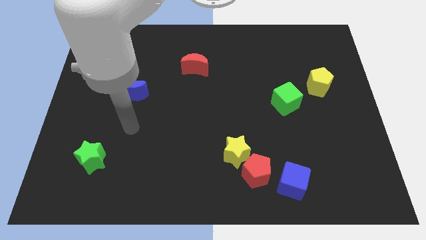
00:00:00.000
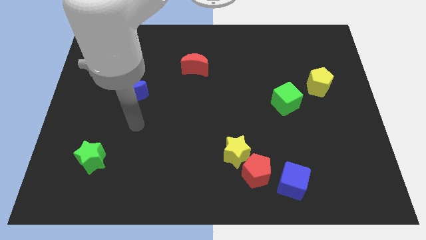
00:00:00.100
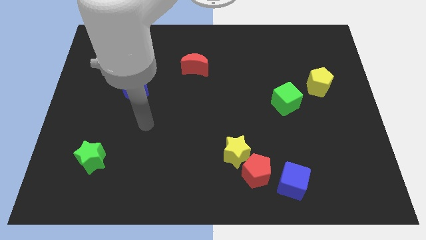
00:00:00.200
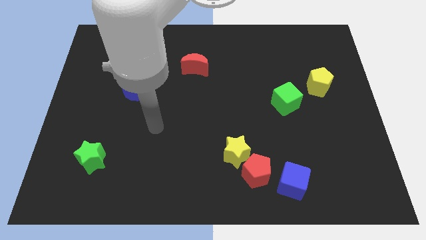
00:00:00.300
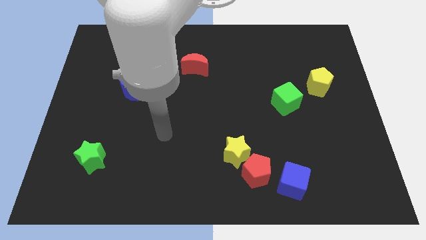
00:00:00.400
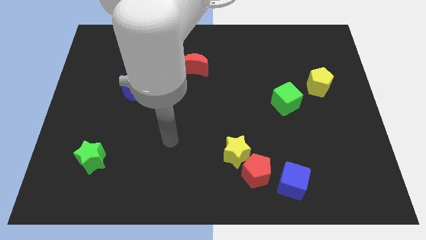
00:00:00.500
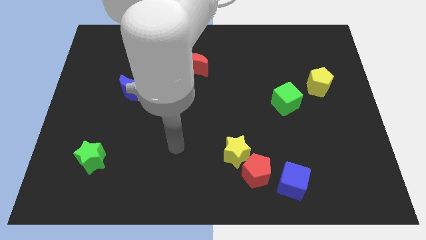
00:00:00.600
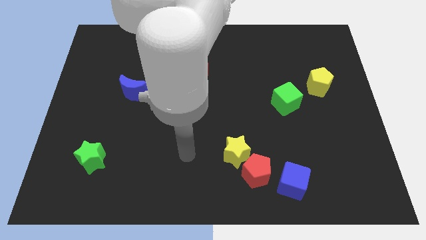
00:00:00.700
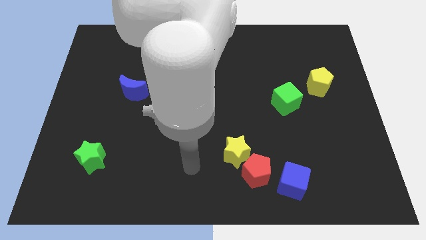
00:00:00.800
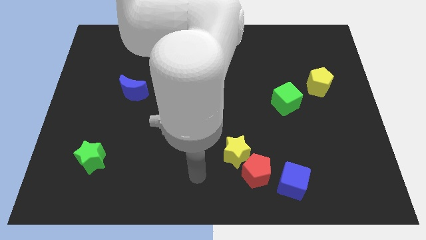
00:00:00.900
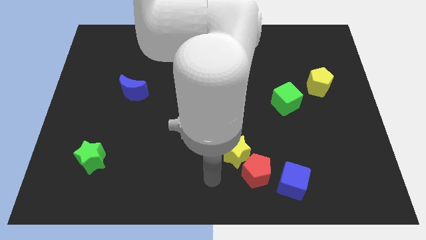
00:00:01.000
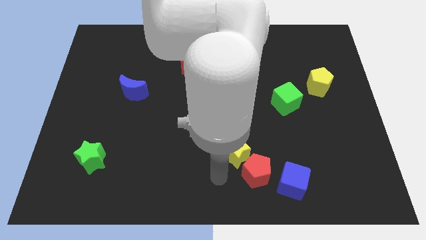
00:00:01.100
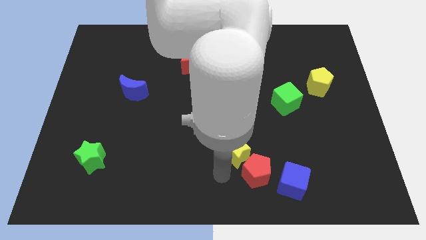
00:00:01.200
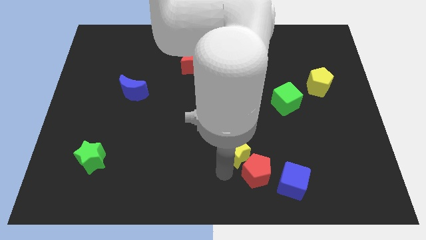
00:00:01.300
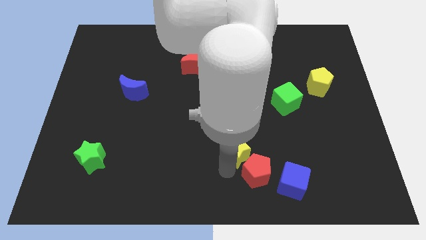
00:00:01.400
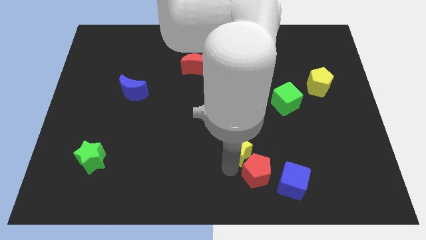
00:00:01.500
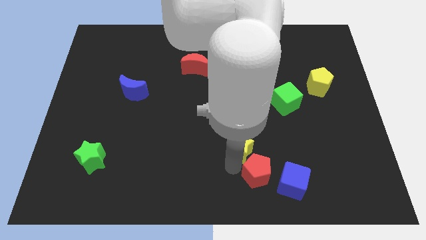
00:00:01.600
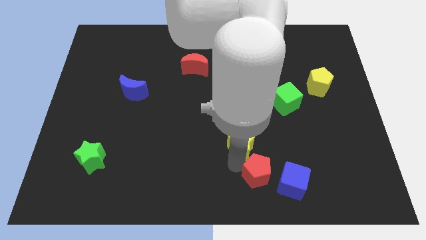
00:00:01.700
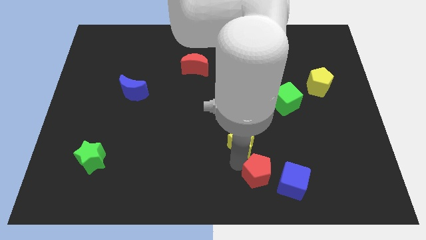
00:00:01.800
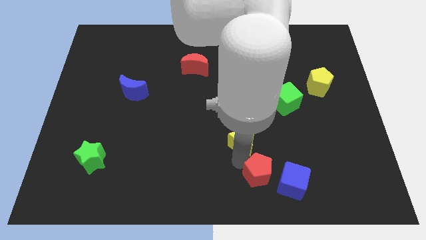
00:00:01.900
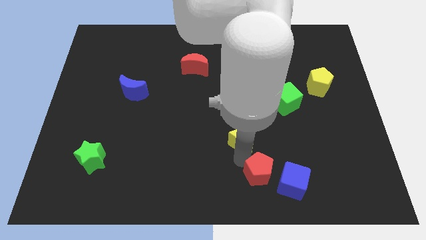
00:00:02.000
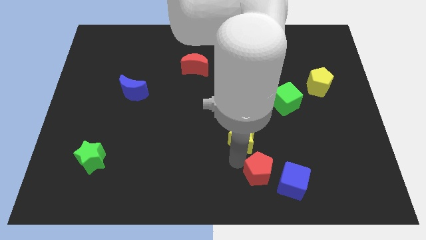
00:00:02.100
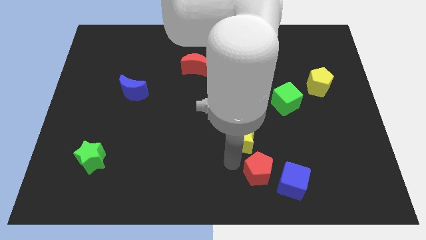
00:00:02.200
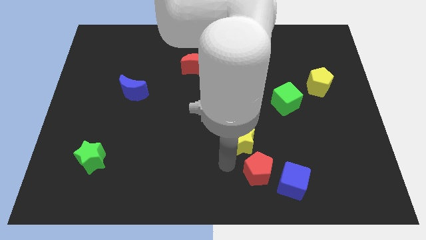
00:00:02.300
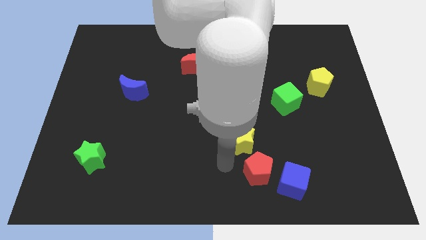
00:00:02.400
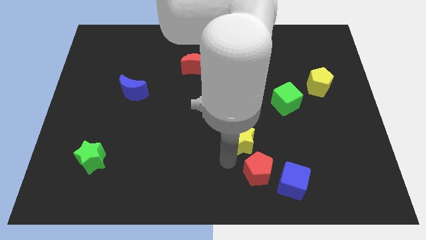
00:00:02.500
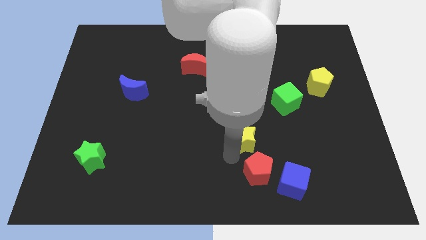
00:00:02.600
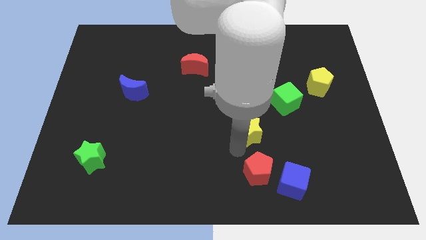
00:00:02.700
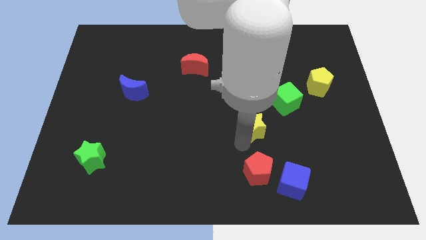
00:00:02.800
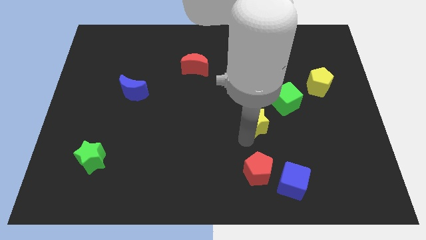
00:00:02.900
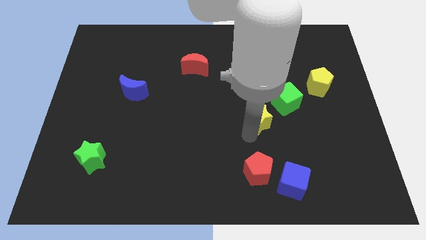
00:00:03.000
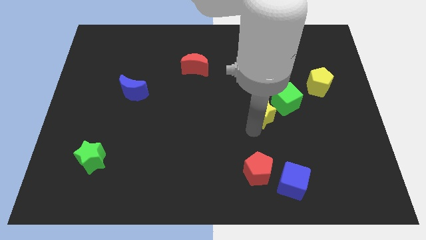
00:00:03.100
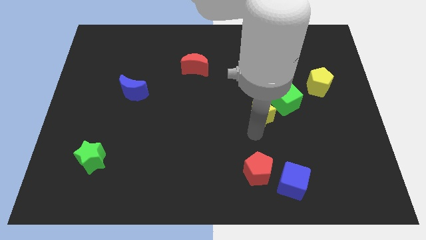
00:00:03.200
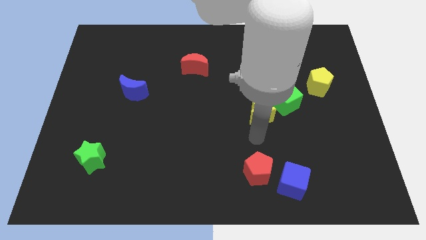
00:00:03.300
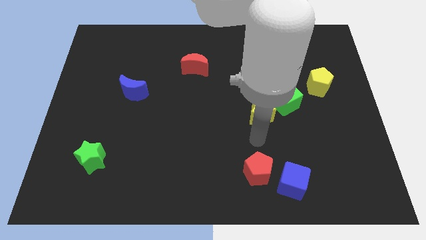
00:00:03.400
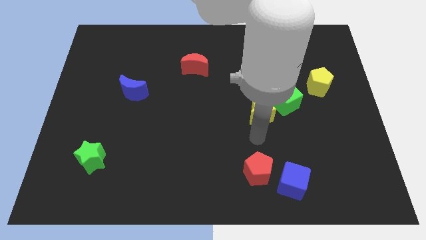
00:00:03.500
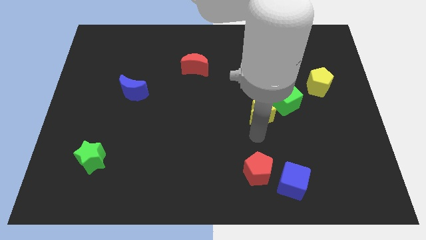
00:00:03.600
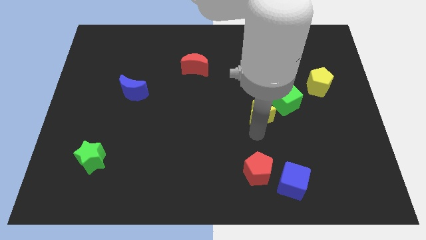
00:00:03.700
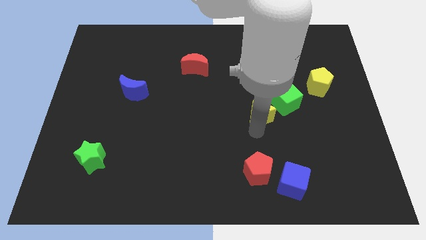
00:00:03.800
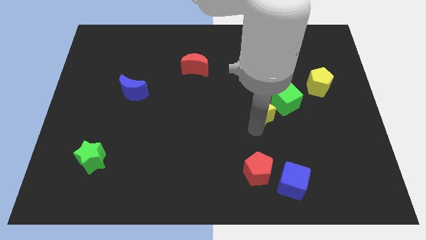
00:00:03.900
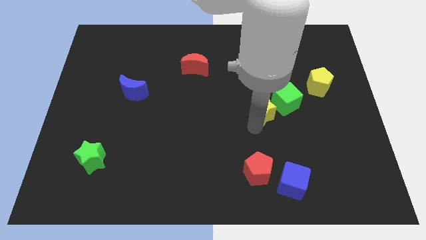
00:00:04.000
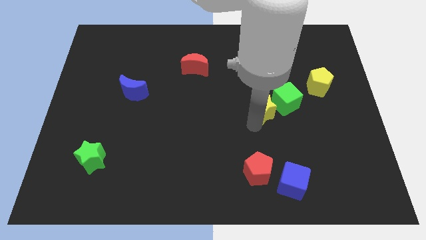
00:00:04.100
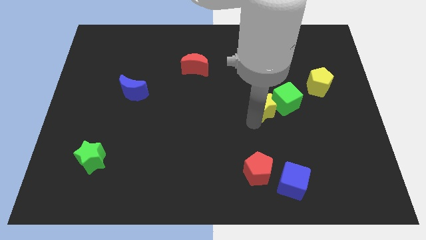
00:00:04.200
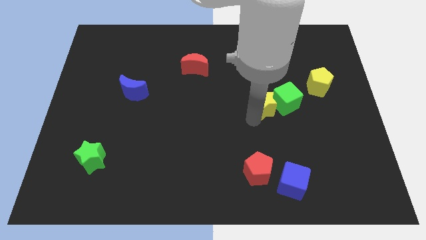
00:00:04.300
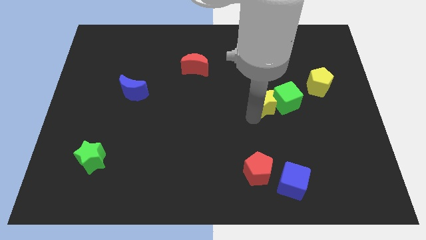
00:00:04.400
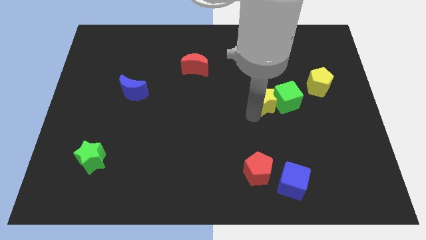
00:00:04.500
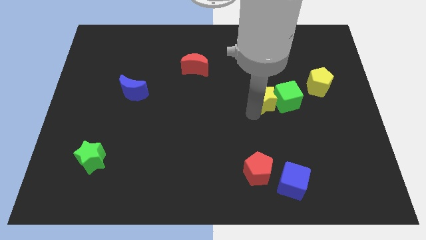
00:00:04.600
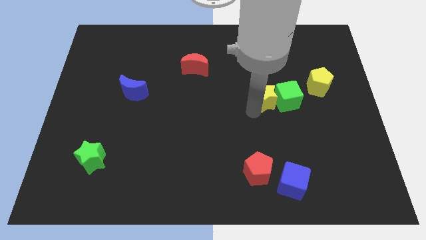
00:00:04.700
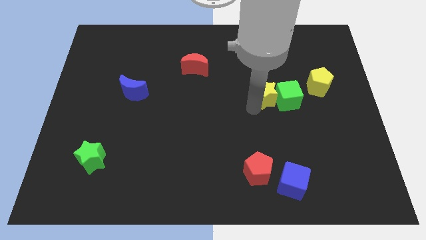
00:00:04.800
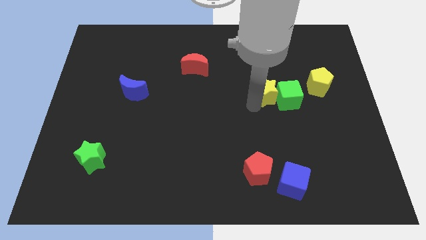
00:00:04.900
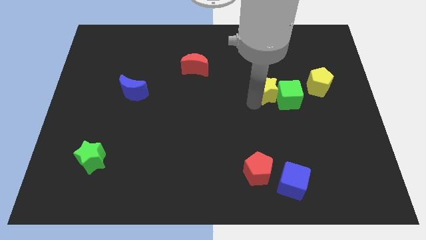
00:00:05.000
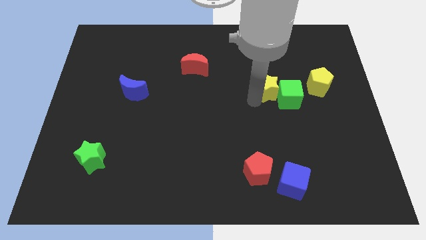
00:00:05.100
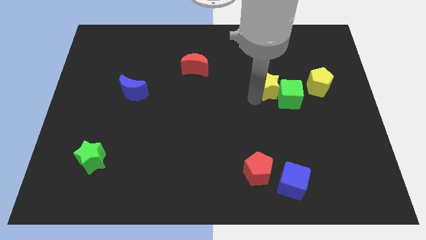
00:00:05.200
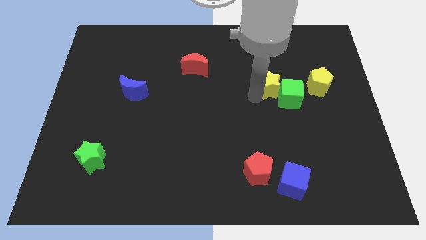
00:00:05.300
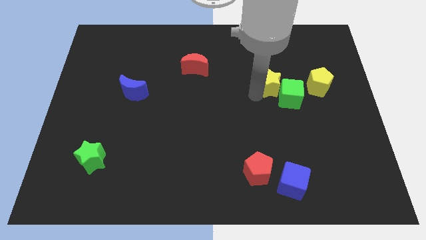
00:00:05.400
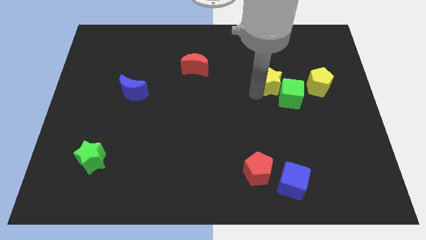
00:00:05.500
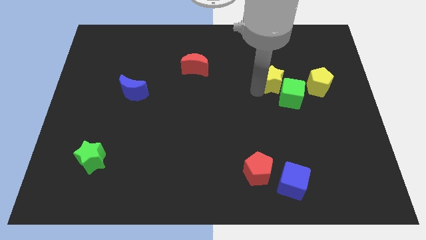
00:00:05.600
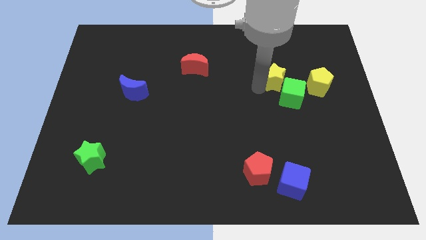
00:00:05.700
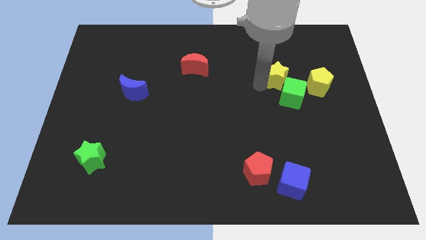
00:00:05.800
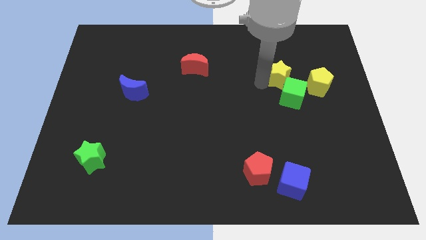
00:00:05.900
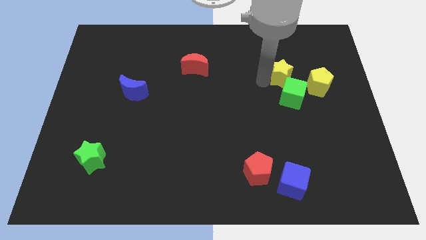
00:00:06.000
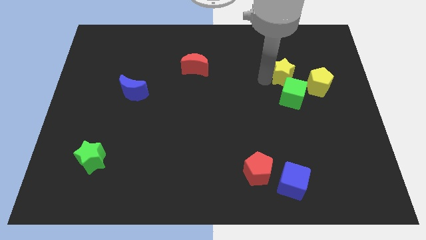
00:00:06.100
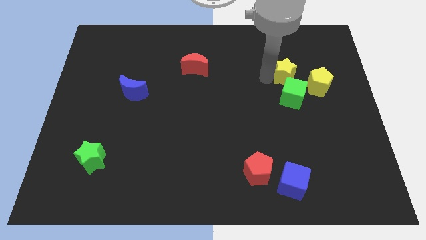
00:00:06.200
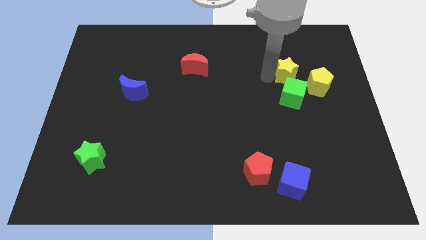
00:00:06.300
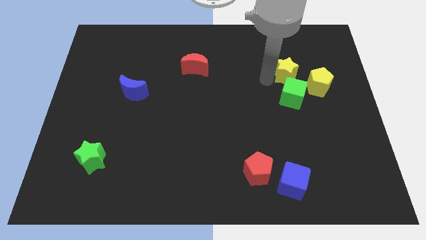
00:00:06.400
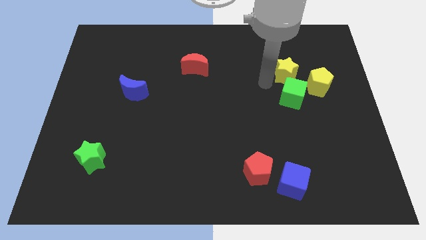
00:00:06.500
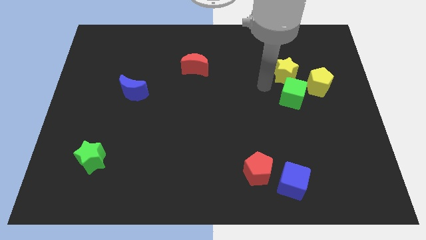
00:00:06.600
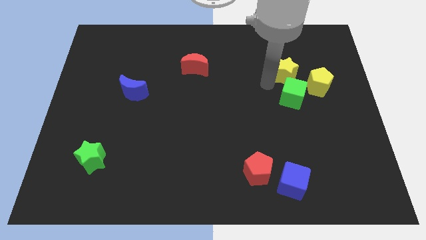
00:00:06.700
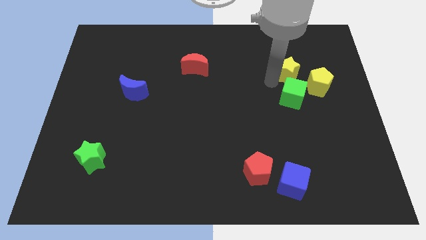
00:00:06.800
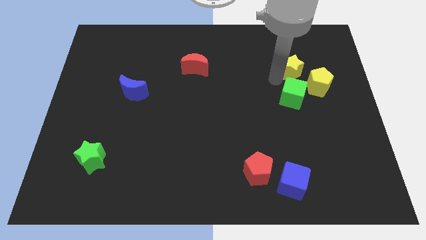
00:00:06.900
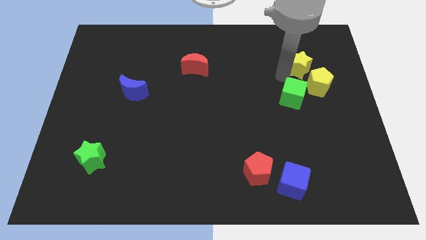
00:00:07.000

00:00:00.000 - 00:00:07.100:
put the yellow star to the top of the yellow pentagon
